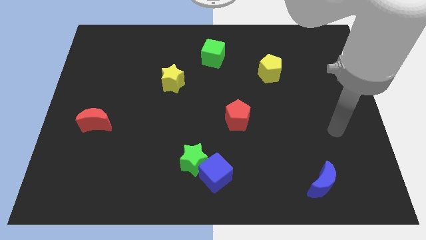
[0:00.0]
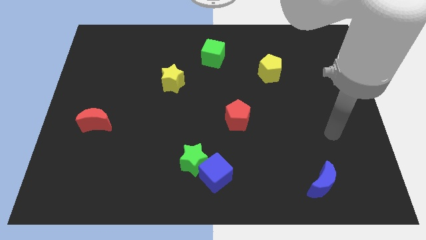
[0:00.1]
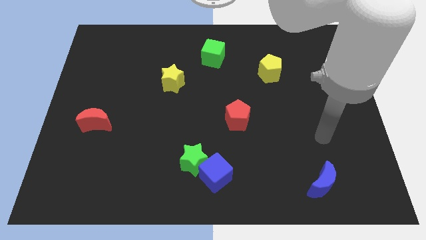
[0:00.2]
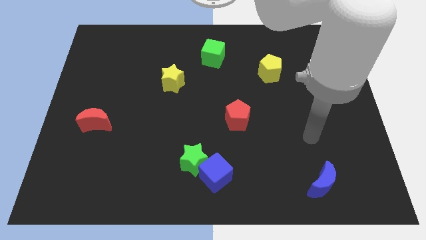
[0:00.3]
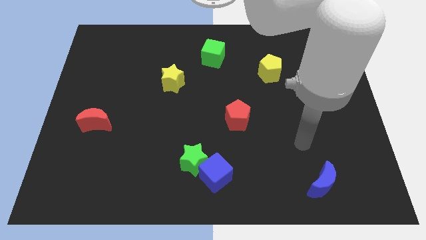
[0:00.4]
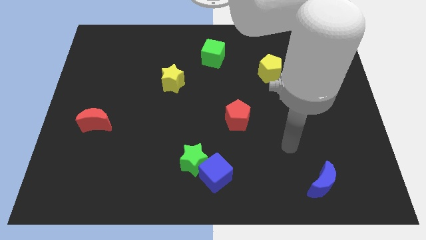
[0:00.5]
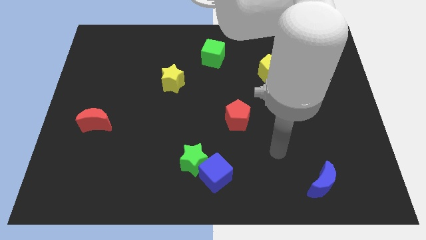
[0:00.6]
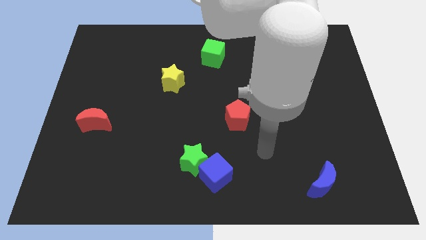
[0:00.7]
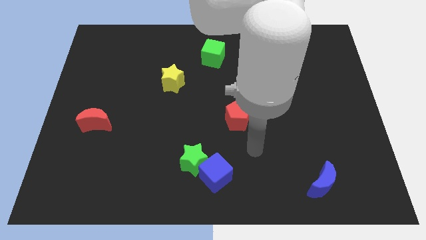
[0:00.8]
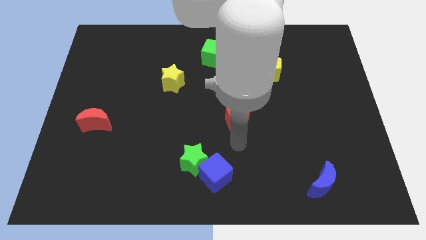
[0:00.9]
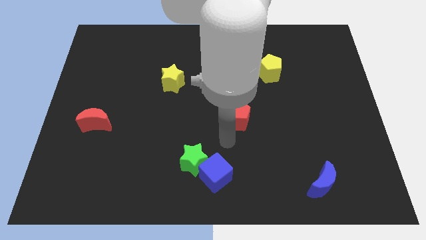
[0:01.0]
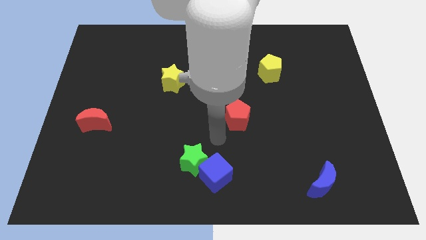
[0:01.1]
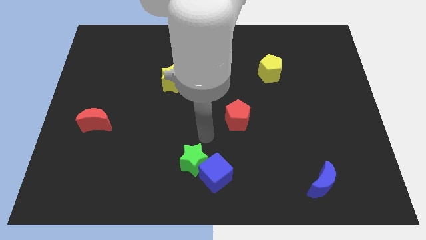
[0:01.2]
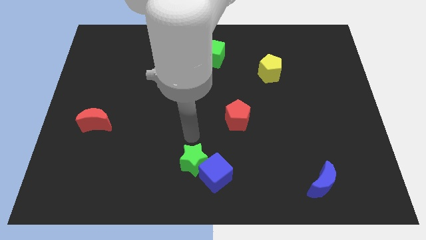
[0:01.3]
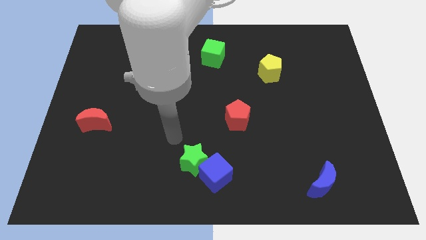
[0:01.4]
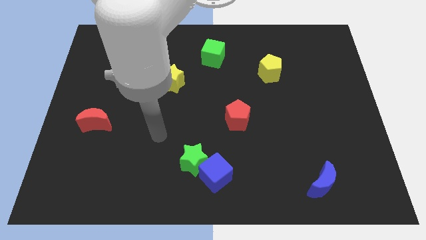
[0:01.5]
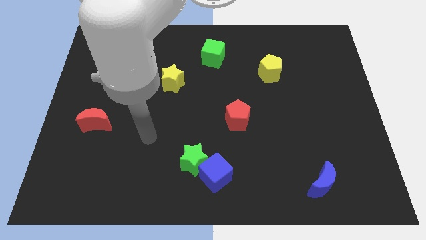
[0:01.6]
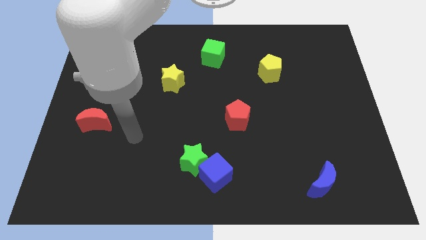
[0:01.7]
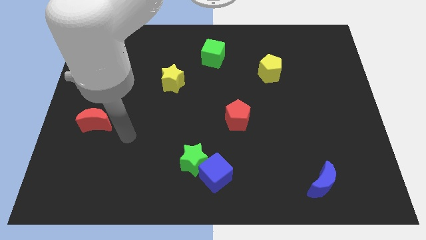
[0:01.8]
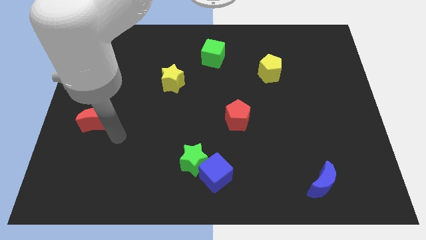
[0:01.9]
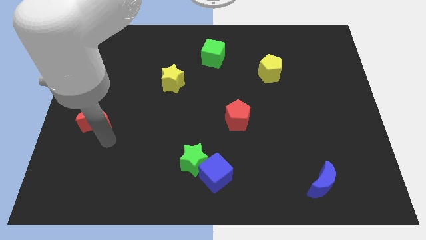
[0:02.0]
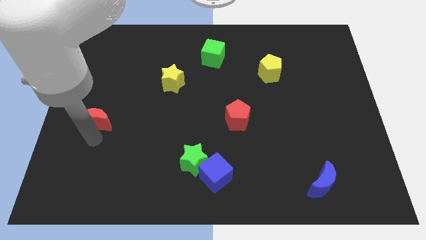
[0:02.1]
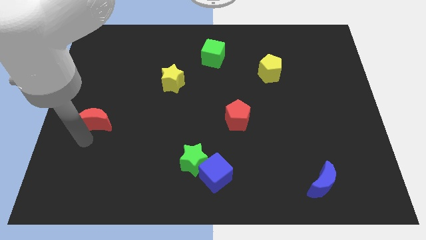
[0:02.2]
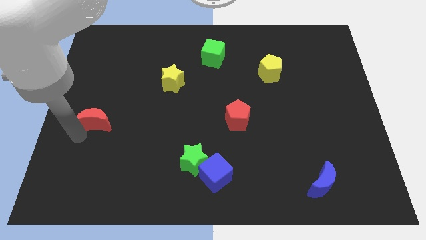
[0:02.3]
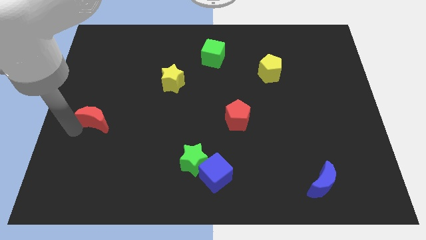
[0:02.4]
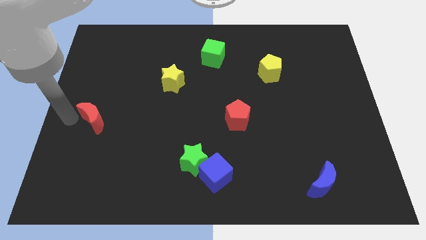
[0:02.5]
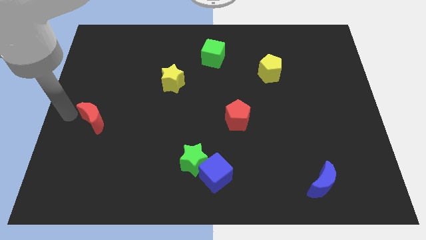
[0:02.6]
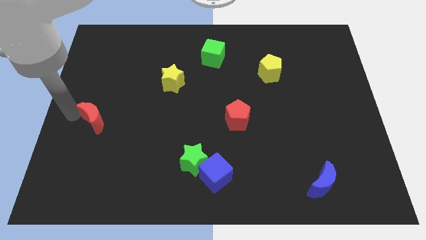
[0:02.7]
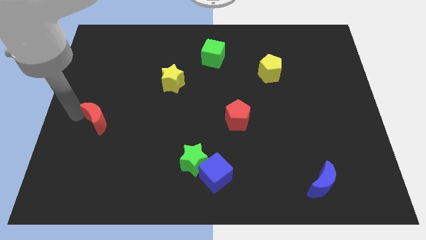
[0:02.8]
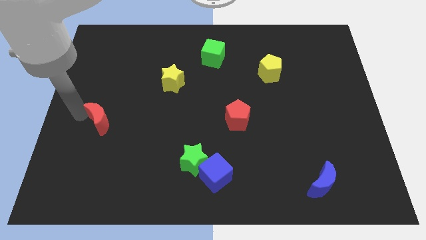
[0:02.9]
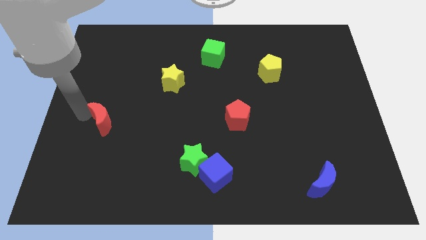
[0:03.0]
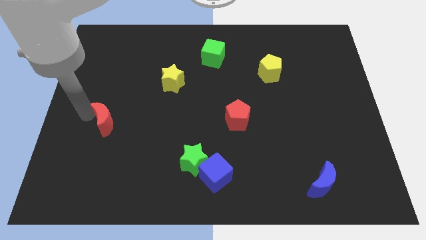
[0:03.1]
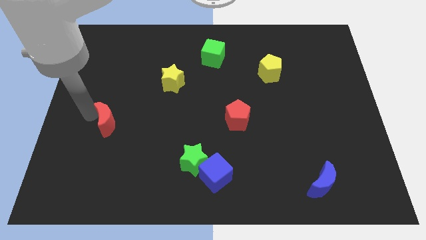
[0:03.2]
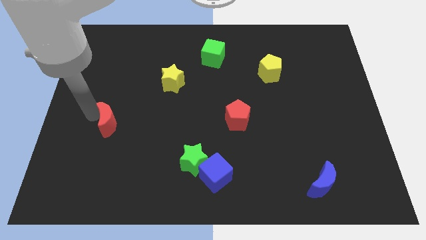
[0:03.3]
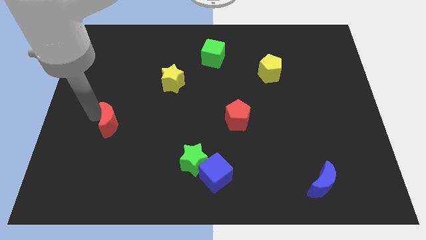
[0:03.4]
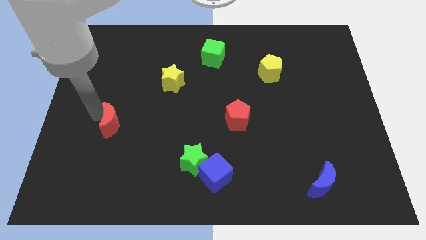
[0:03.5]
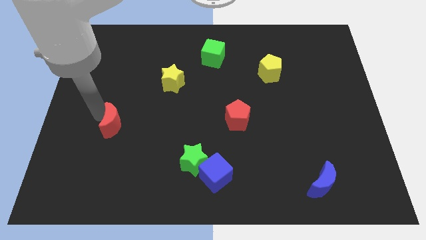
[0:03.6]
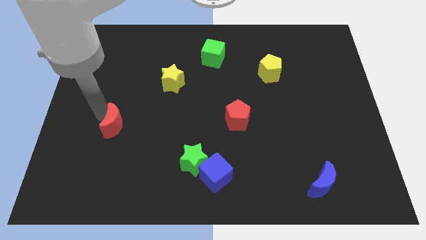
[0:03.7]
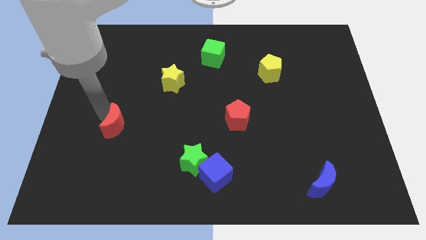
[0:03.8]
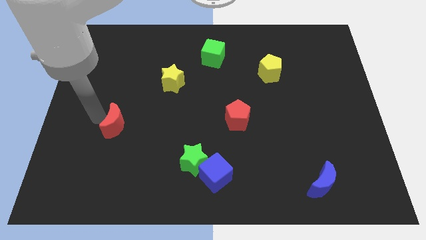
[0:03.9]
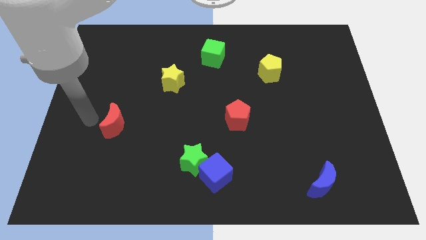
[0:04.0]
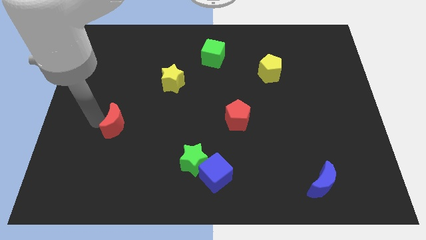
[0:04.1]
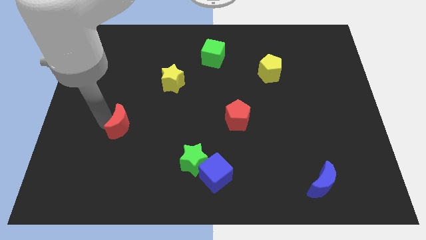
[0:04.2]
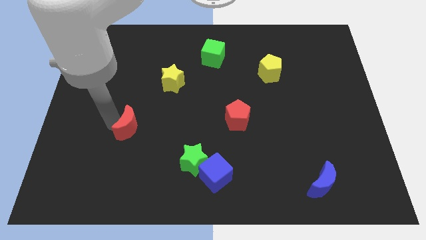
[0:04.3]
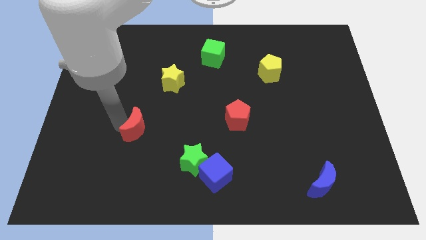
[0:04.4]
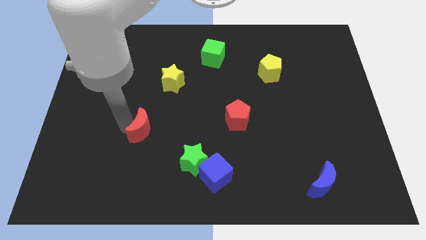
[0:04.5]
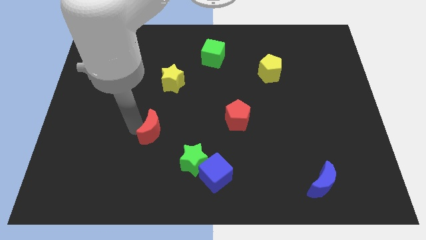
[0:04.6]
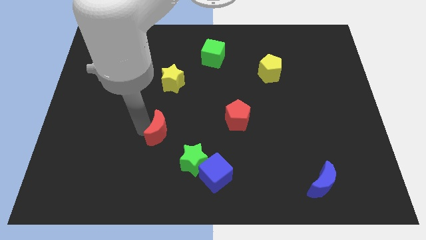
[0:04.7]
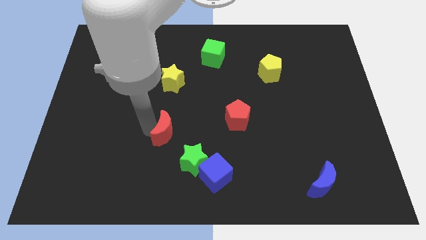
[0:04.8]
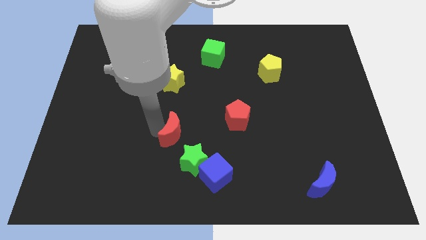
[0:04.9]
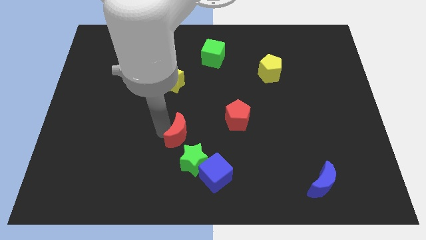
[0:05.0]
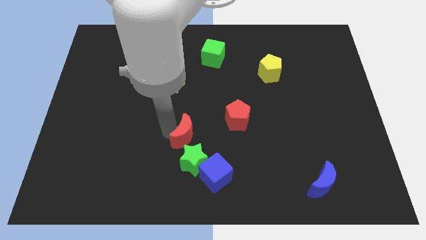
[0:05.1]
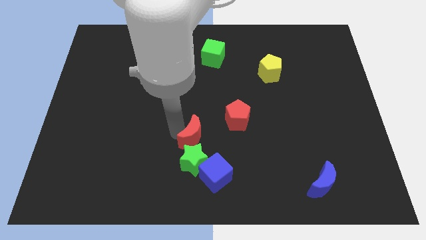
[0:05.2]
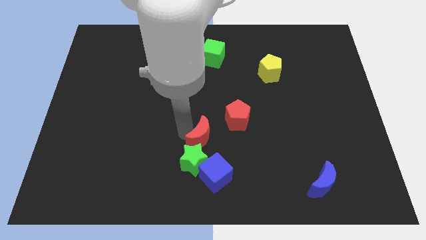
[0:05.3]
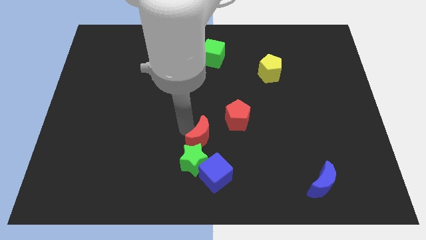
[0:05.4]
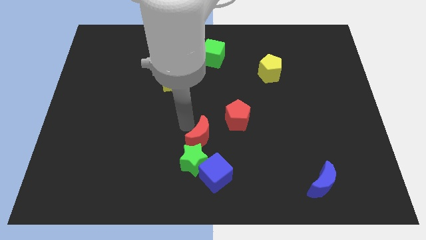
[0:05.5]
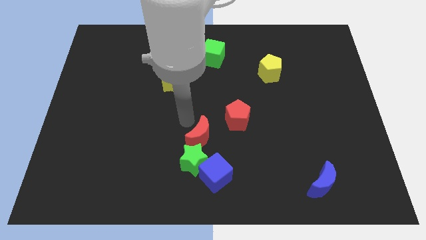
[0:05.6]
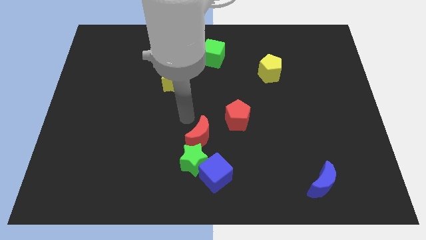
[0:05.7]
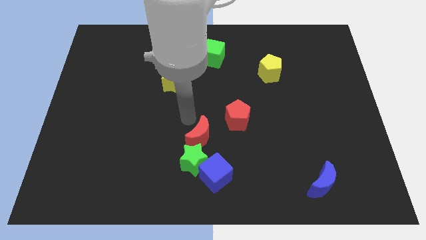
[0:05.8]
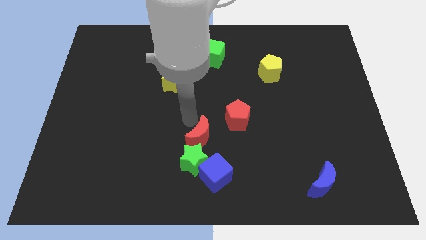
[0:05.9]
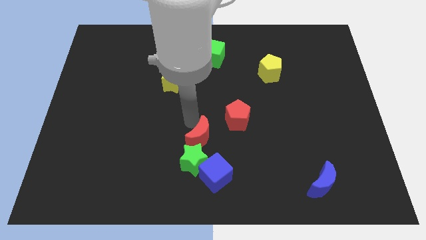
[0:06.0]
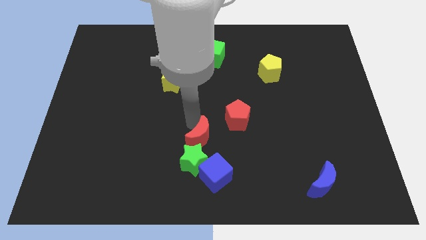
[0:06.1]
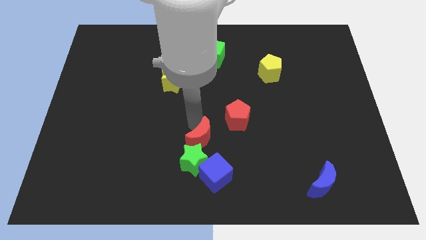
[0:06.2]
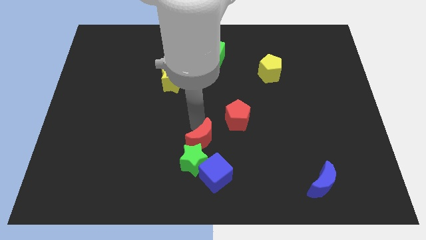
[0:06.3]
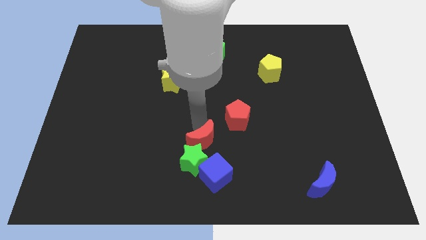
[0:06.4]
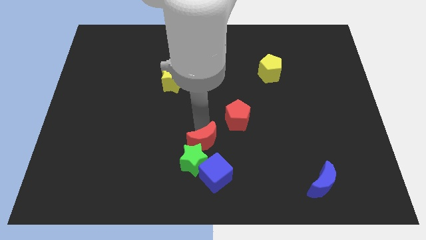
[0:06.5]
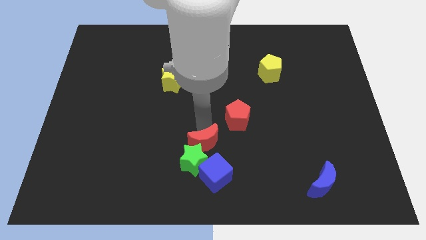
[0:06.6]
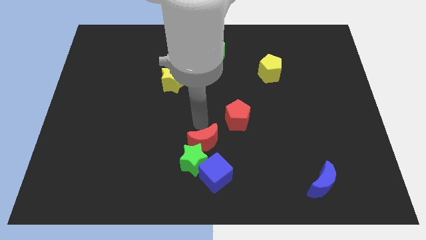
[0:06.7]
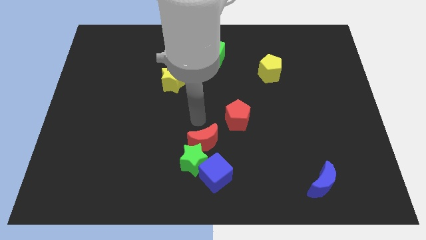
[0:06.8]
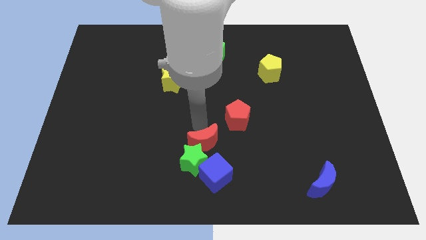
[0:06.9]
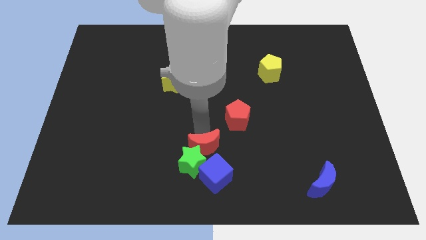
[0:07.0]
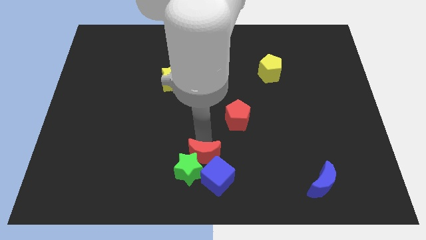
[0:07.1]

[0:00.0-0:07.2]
slide the red moon to the blue cube
